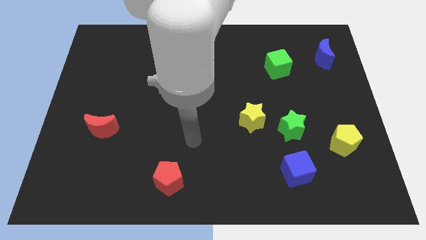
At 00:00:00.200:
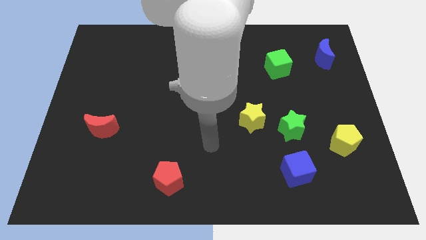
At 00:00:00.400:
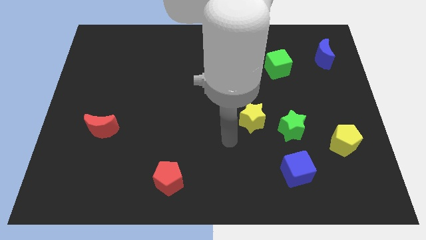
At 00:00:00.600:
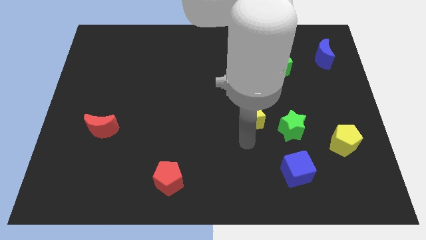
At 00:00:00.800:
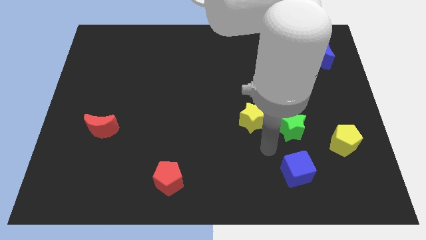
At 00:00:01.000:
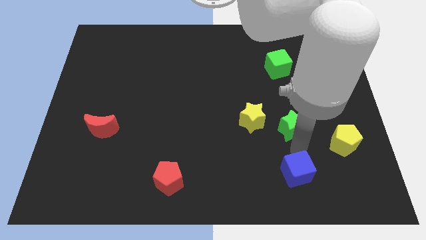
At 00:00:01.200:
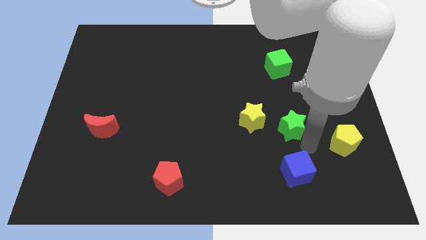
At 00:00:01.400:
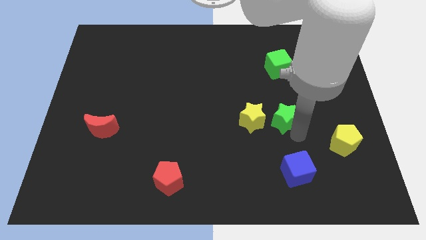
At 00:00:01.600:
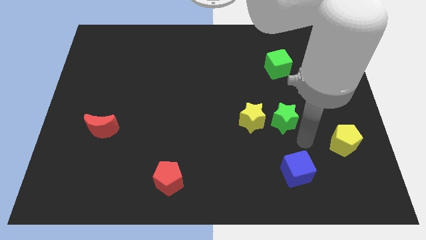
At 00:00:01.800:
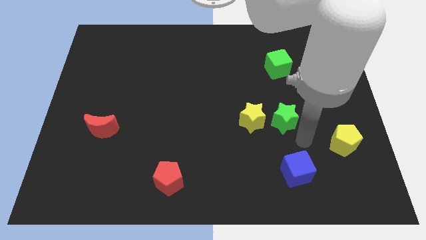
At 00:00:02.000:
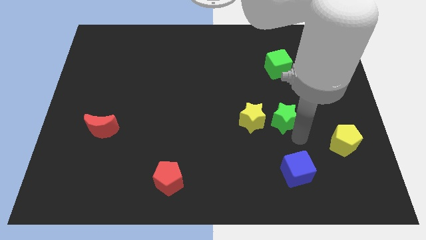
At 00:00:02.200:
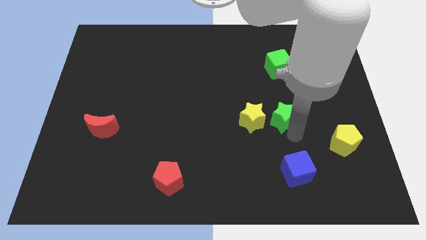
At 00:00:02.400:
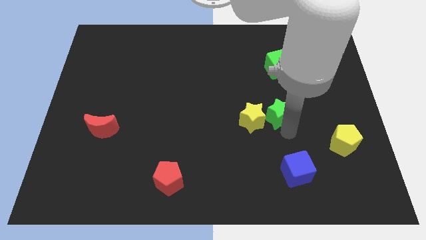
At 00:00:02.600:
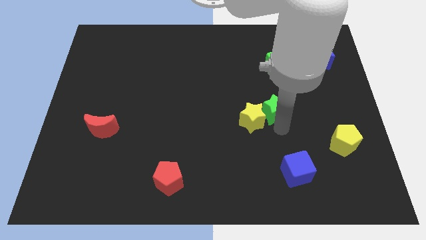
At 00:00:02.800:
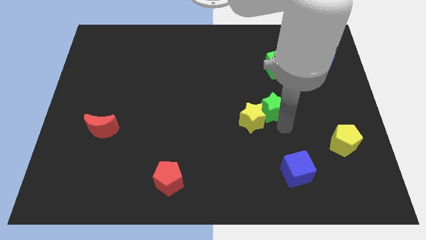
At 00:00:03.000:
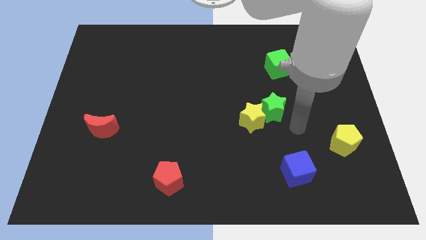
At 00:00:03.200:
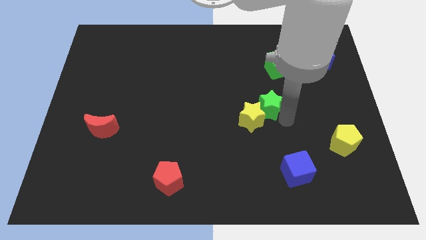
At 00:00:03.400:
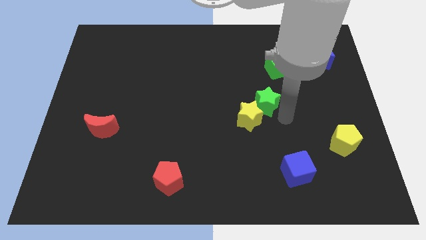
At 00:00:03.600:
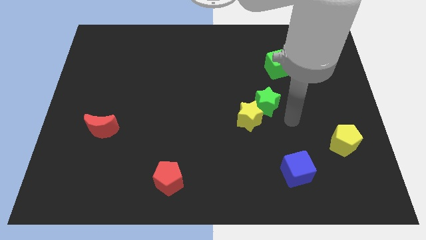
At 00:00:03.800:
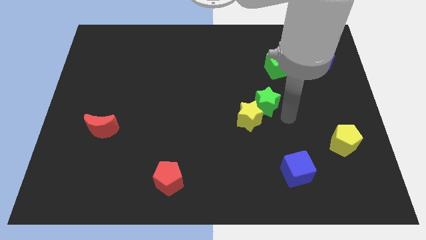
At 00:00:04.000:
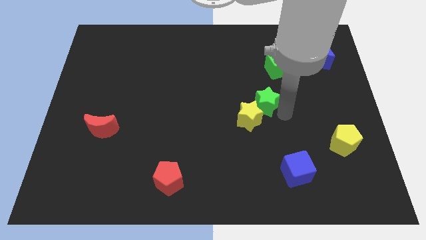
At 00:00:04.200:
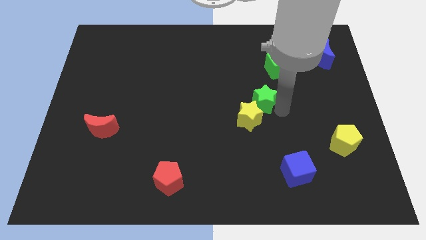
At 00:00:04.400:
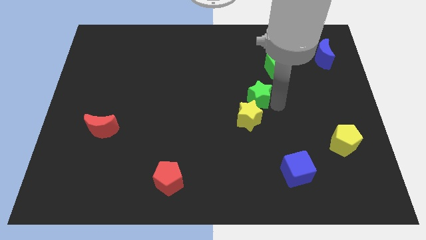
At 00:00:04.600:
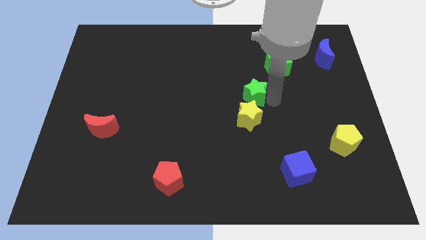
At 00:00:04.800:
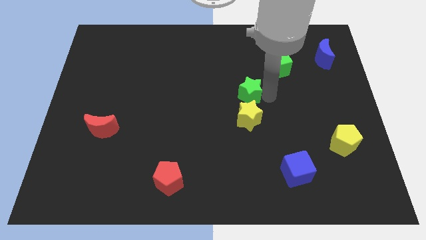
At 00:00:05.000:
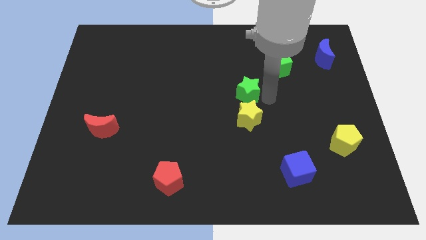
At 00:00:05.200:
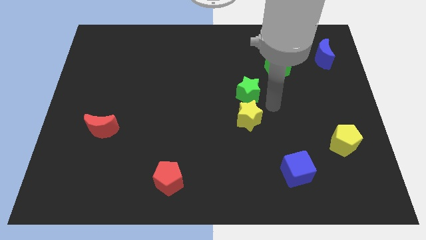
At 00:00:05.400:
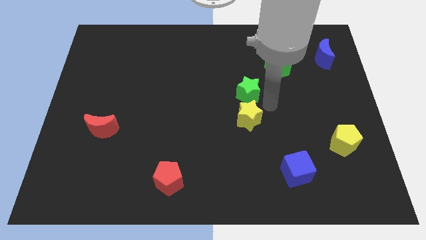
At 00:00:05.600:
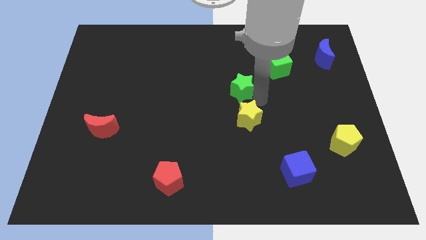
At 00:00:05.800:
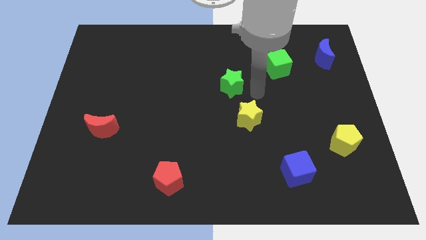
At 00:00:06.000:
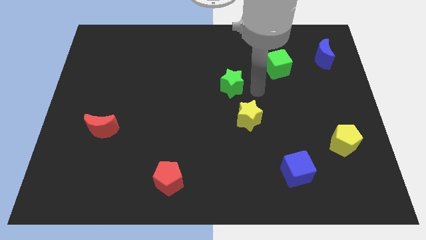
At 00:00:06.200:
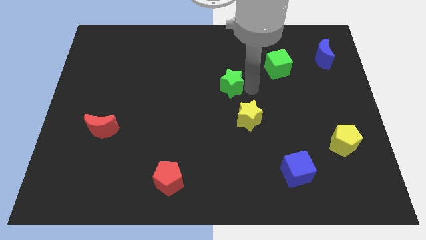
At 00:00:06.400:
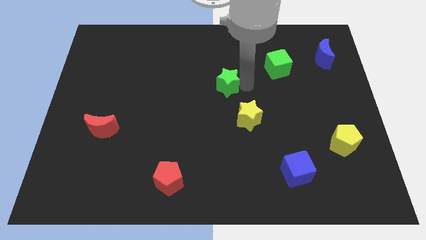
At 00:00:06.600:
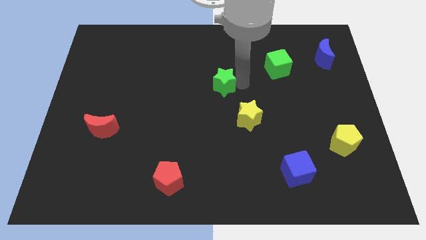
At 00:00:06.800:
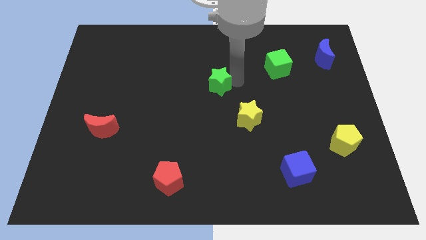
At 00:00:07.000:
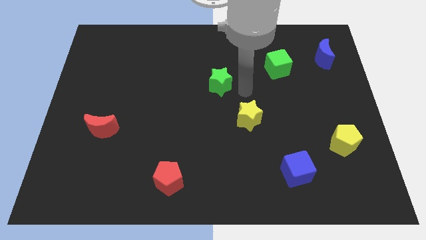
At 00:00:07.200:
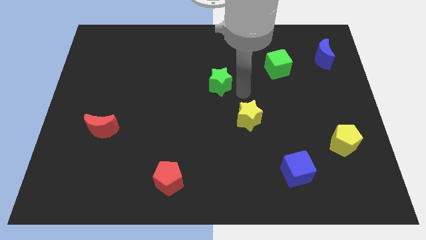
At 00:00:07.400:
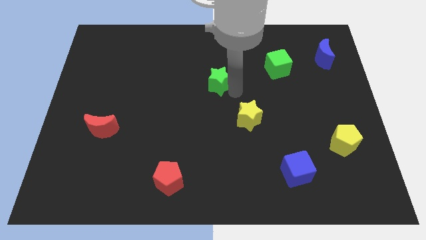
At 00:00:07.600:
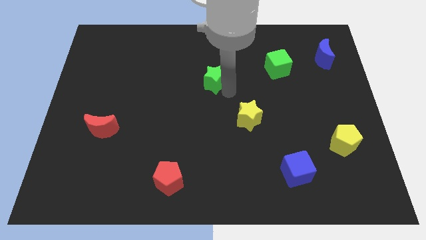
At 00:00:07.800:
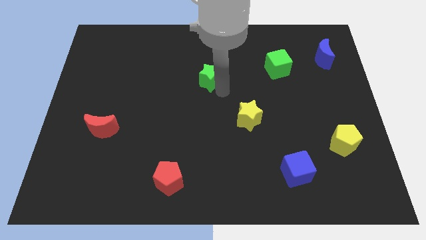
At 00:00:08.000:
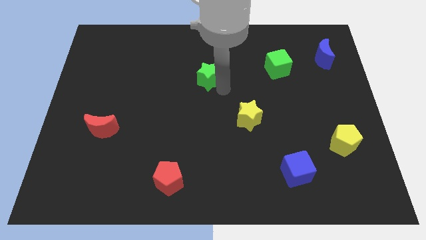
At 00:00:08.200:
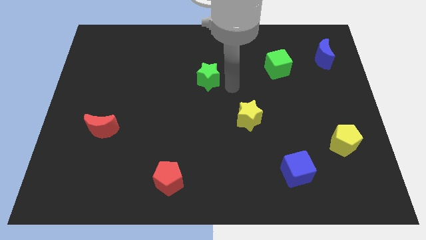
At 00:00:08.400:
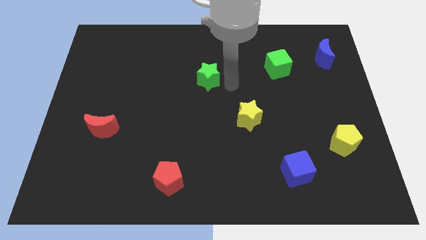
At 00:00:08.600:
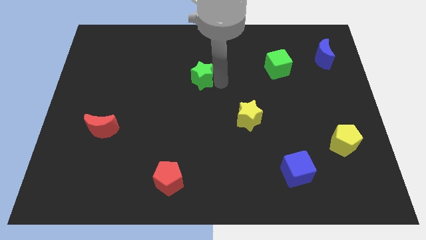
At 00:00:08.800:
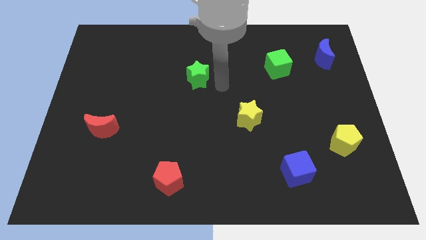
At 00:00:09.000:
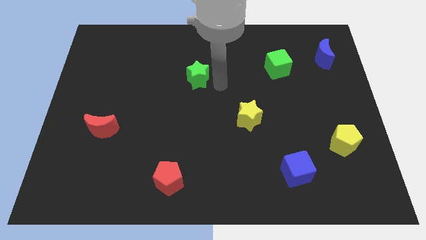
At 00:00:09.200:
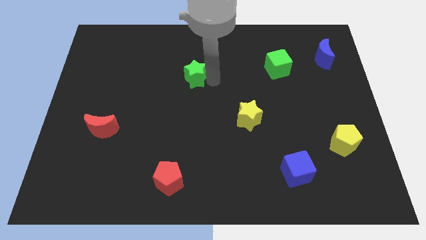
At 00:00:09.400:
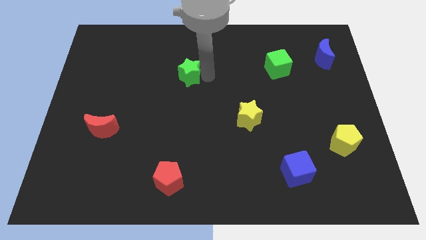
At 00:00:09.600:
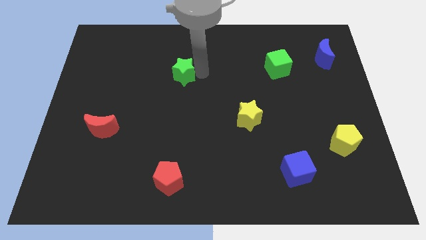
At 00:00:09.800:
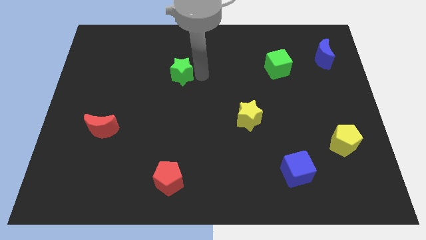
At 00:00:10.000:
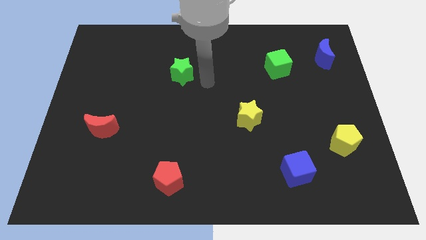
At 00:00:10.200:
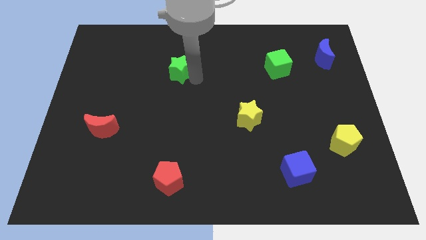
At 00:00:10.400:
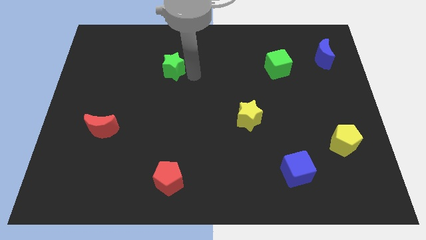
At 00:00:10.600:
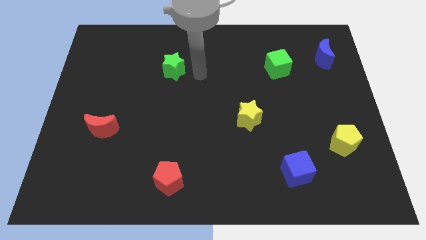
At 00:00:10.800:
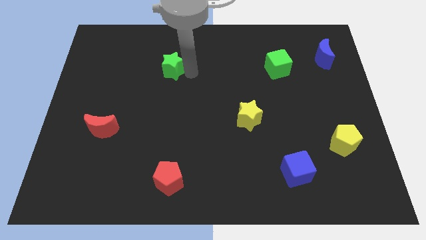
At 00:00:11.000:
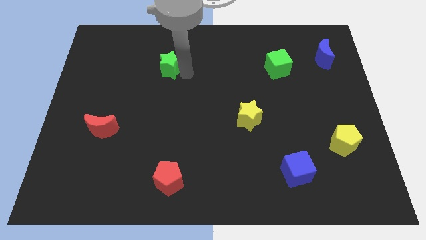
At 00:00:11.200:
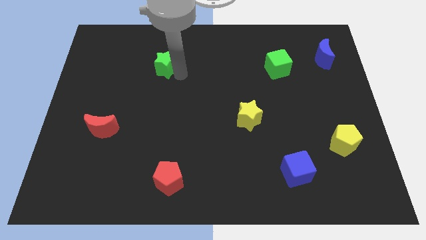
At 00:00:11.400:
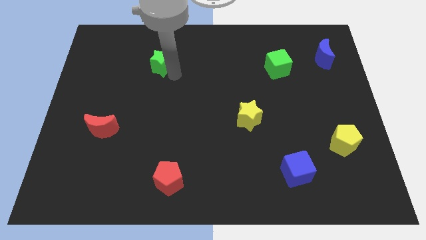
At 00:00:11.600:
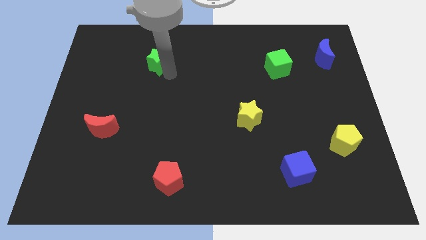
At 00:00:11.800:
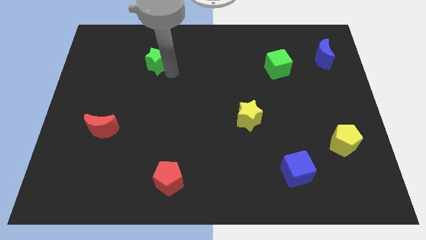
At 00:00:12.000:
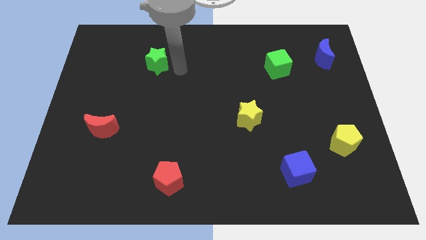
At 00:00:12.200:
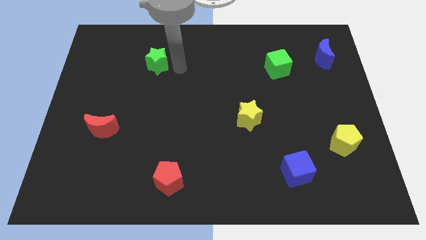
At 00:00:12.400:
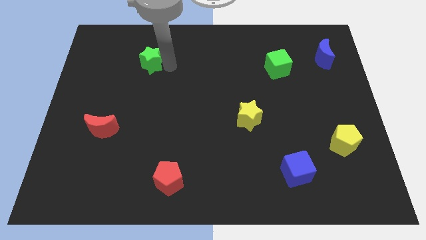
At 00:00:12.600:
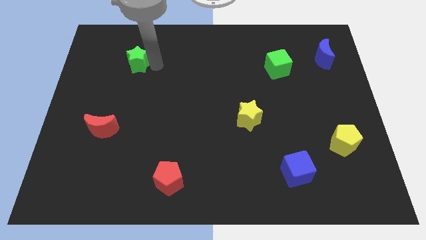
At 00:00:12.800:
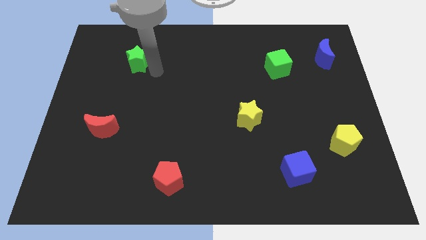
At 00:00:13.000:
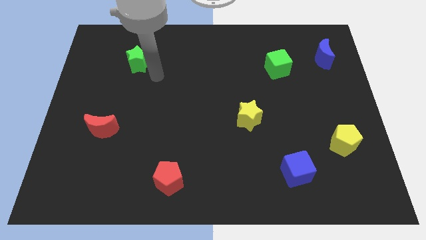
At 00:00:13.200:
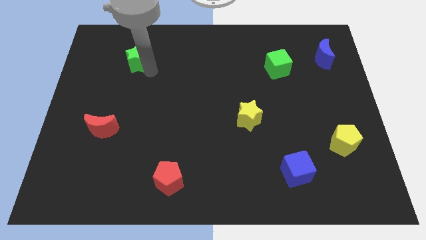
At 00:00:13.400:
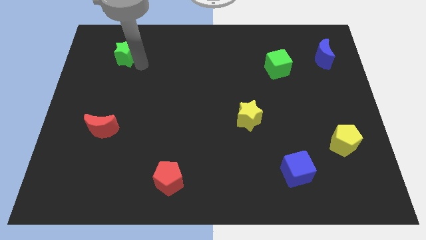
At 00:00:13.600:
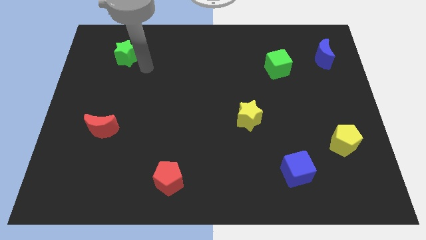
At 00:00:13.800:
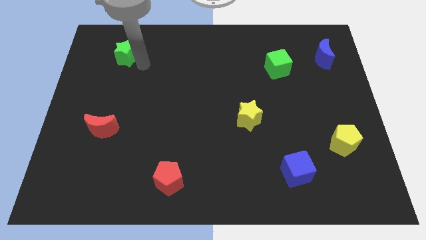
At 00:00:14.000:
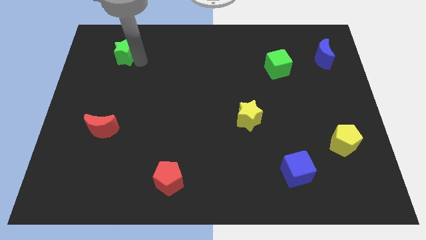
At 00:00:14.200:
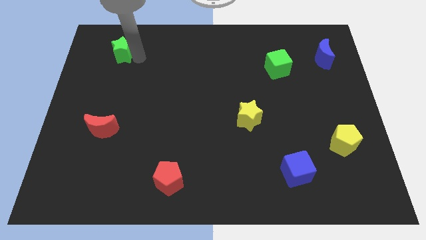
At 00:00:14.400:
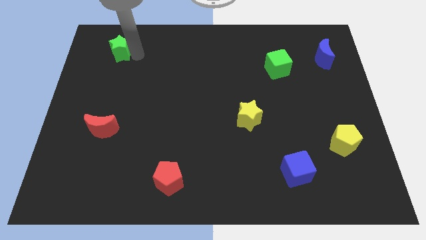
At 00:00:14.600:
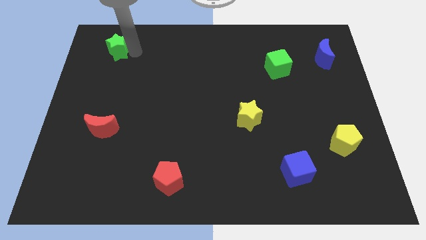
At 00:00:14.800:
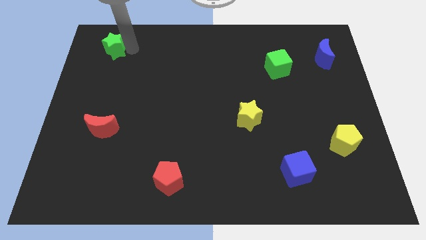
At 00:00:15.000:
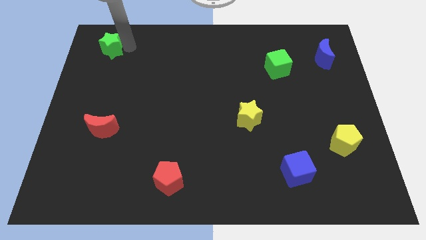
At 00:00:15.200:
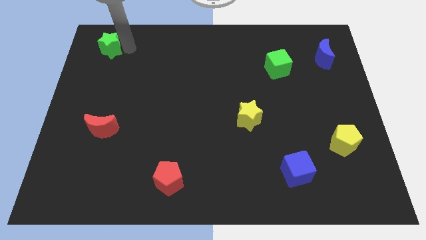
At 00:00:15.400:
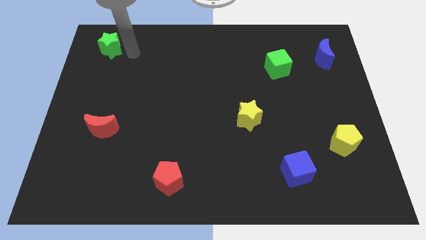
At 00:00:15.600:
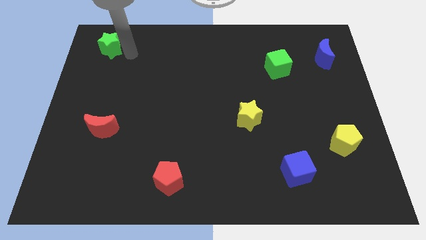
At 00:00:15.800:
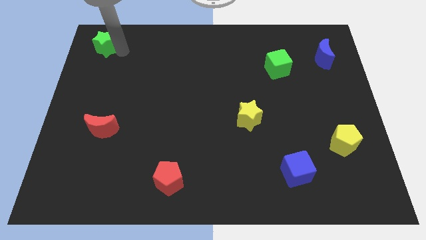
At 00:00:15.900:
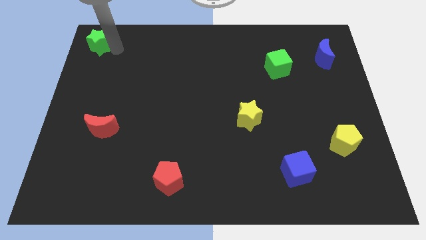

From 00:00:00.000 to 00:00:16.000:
push the green star to the upper left corner
